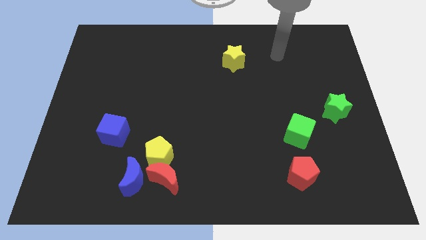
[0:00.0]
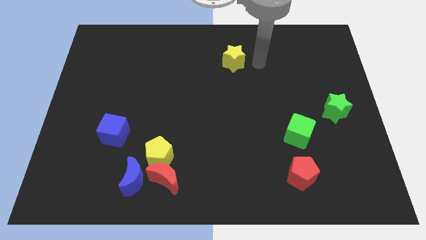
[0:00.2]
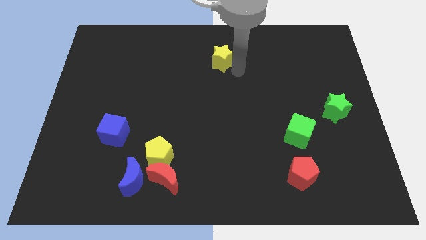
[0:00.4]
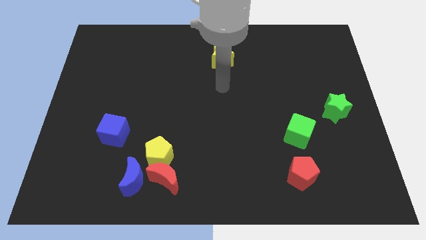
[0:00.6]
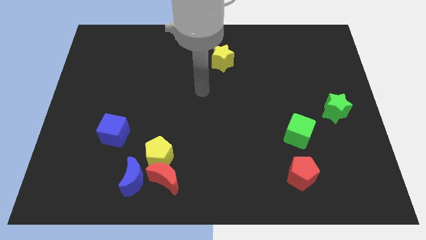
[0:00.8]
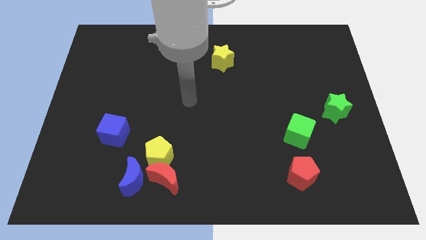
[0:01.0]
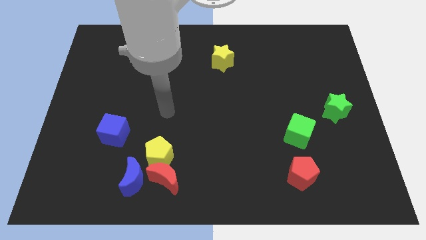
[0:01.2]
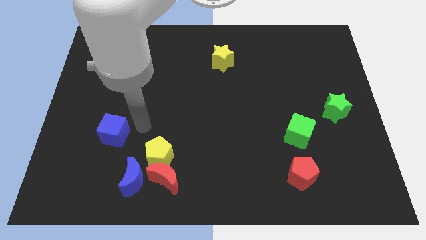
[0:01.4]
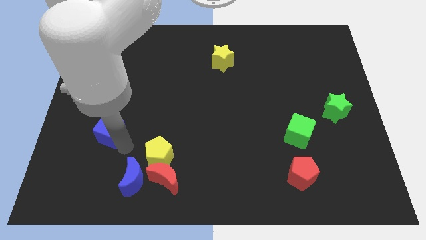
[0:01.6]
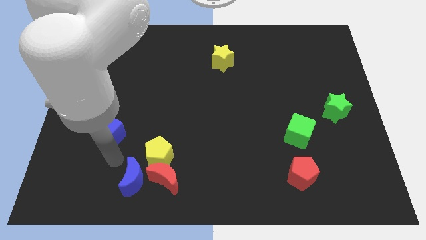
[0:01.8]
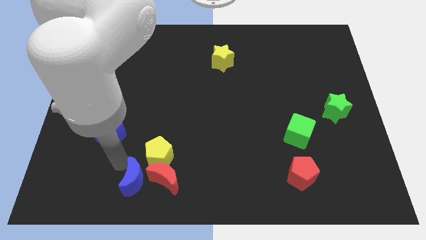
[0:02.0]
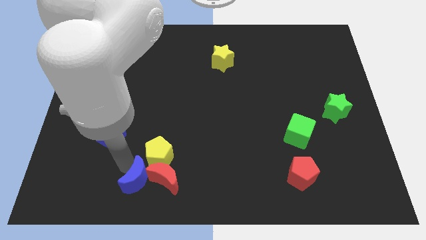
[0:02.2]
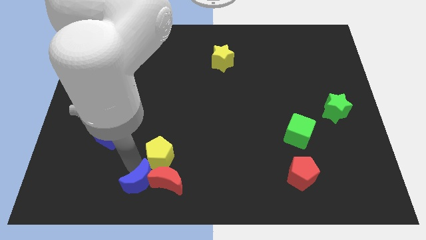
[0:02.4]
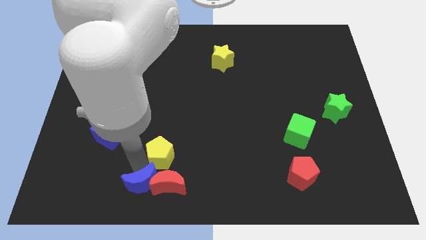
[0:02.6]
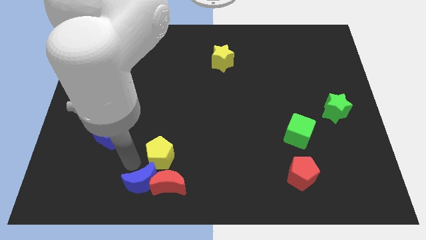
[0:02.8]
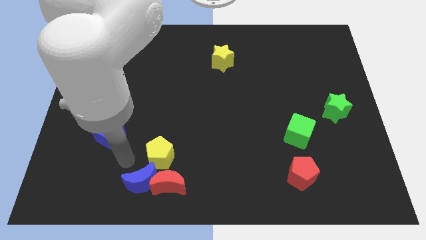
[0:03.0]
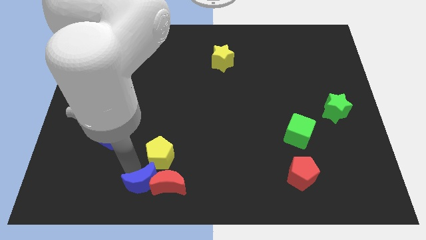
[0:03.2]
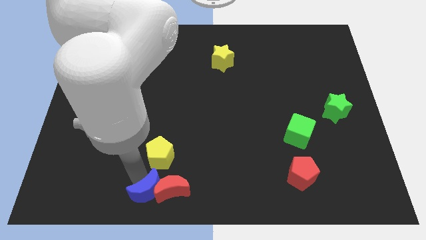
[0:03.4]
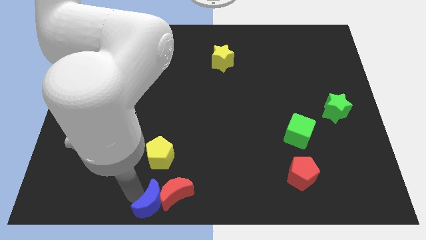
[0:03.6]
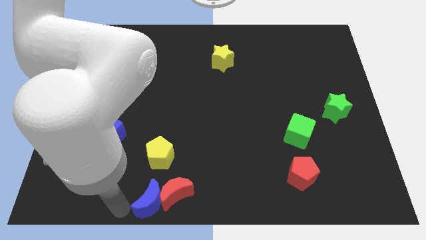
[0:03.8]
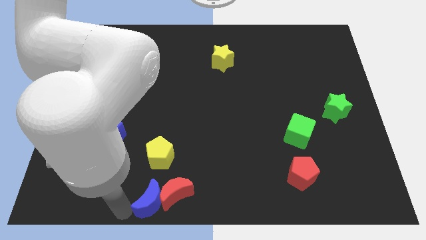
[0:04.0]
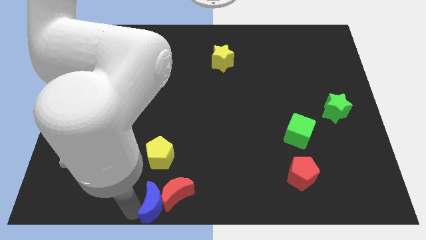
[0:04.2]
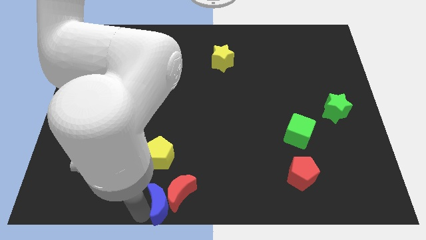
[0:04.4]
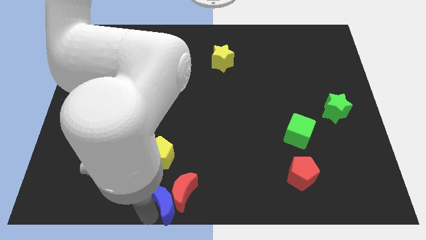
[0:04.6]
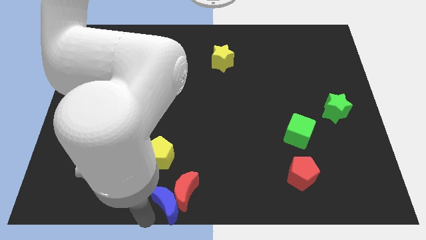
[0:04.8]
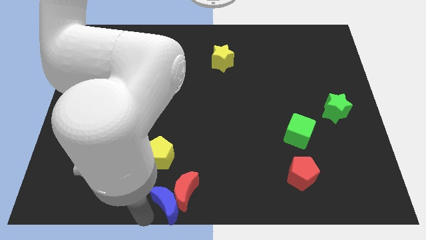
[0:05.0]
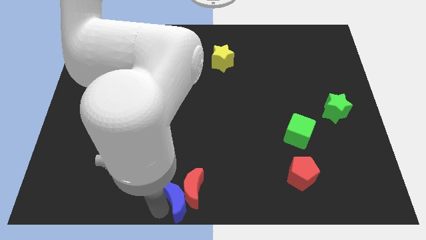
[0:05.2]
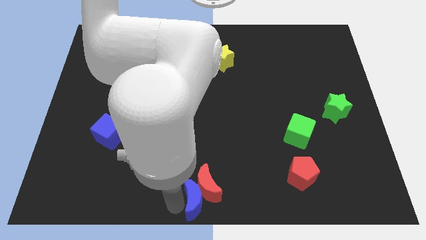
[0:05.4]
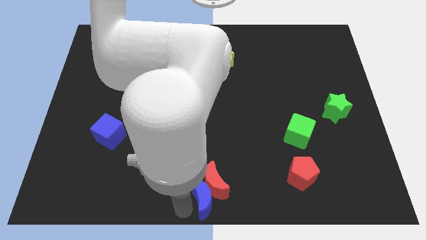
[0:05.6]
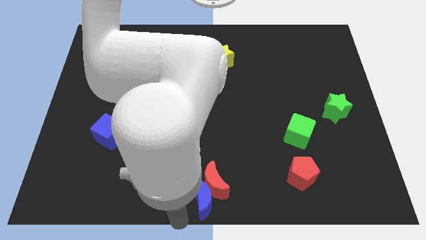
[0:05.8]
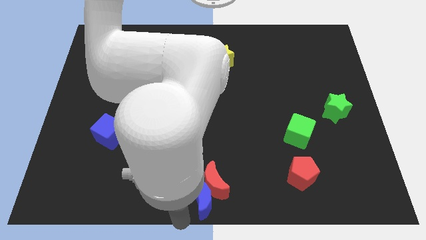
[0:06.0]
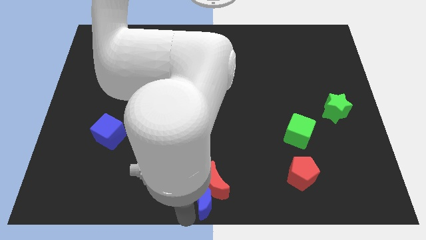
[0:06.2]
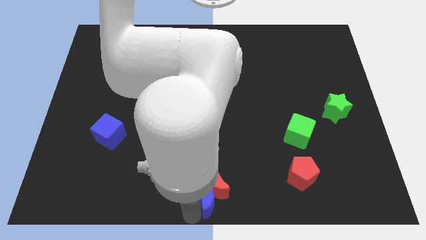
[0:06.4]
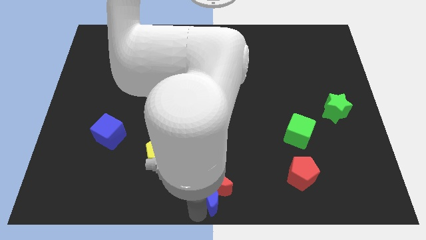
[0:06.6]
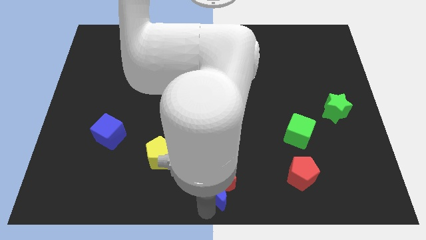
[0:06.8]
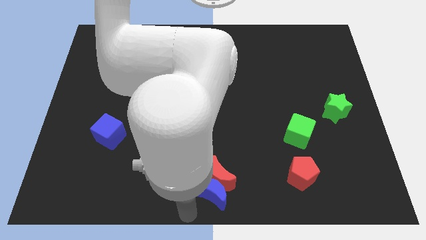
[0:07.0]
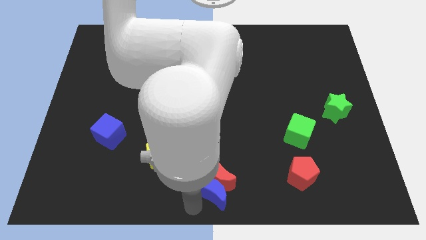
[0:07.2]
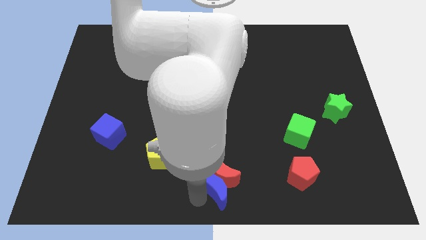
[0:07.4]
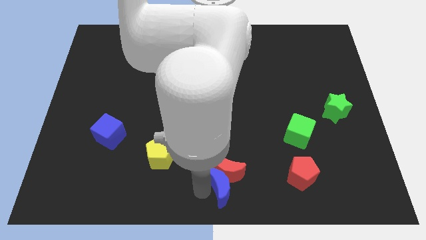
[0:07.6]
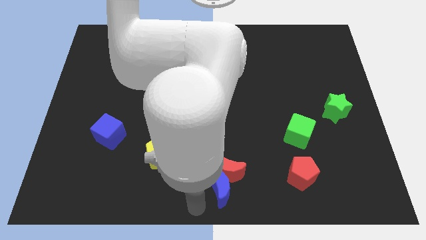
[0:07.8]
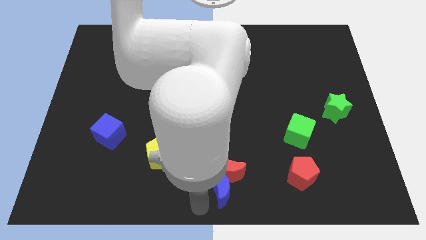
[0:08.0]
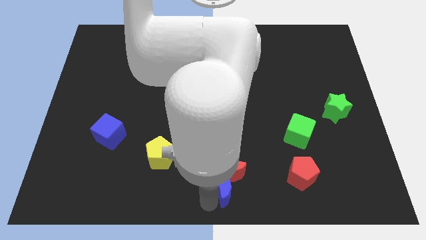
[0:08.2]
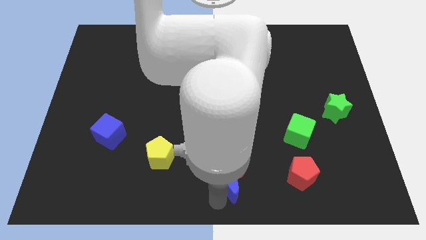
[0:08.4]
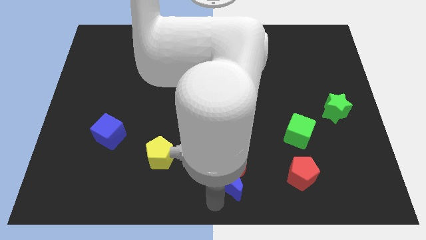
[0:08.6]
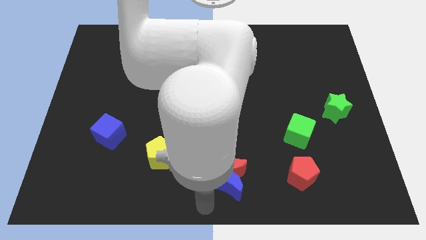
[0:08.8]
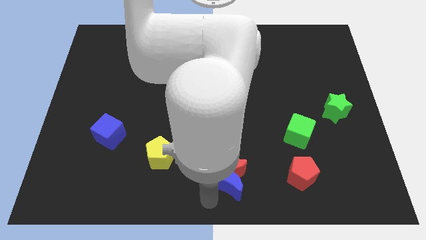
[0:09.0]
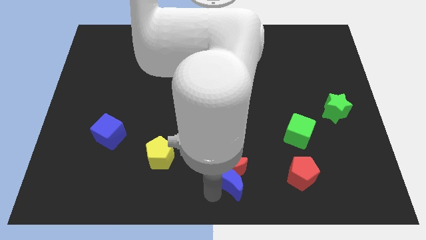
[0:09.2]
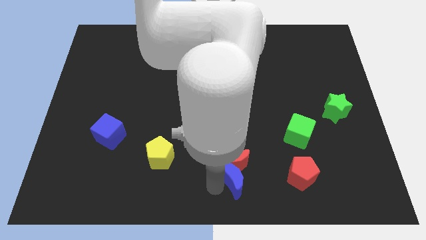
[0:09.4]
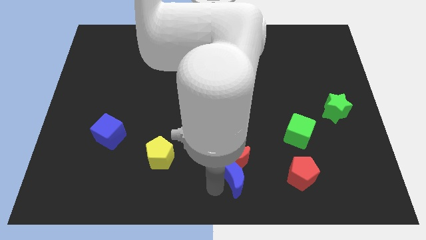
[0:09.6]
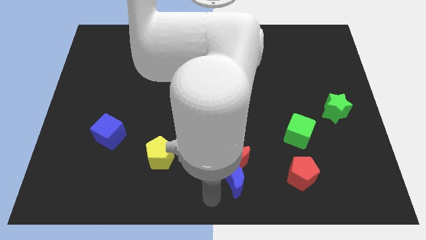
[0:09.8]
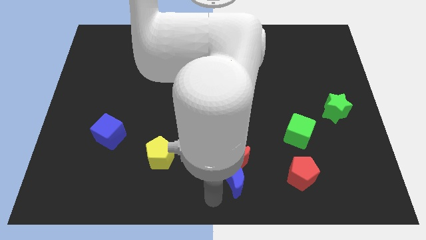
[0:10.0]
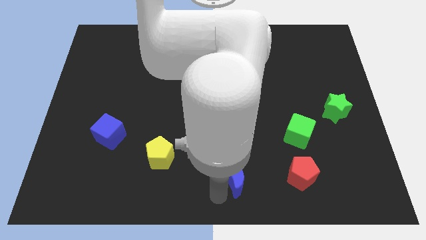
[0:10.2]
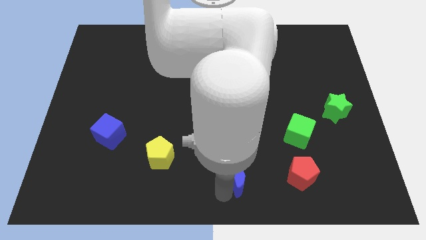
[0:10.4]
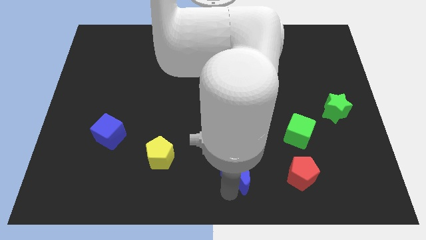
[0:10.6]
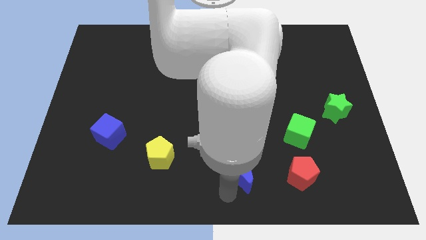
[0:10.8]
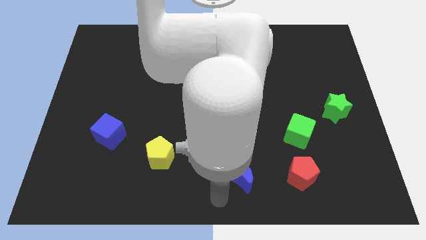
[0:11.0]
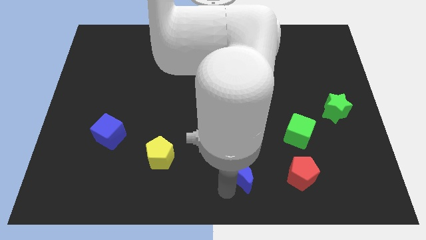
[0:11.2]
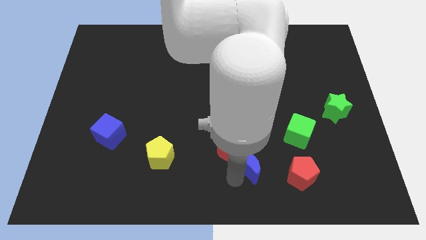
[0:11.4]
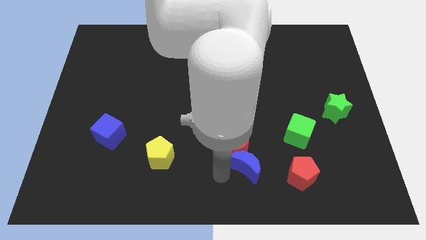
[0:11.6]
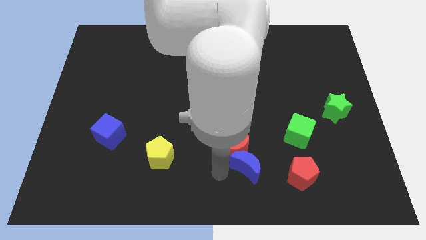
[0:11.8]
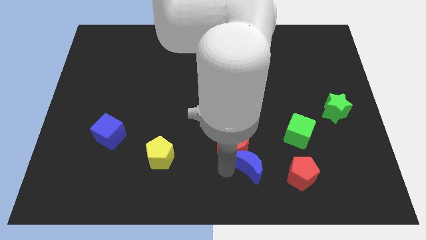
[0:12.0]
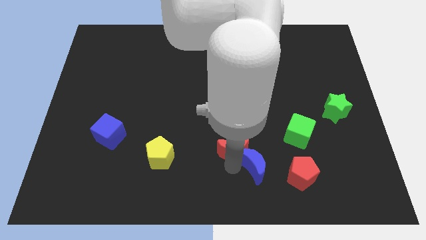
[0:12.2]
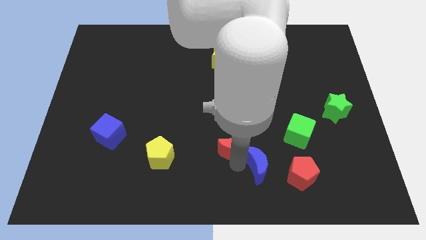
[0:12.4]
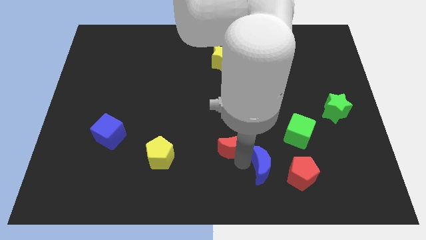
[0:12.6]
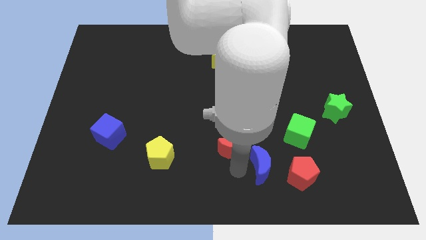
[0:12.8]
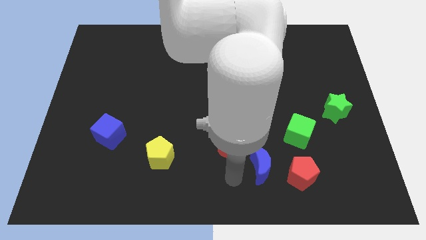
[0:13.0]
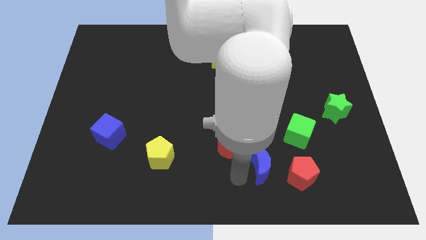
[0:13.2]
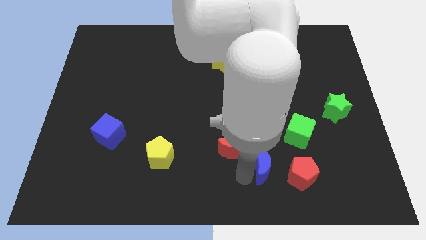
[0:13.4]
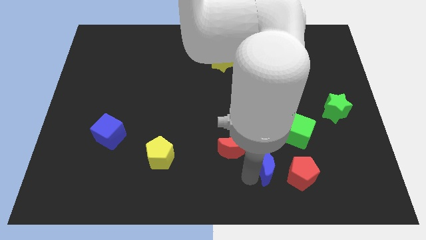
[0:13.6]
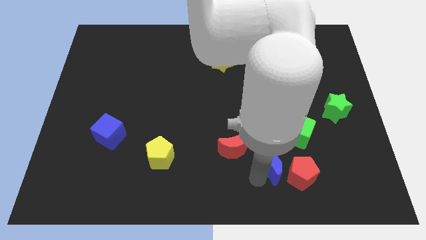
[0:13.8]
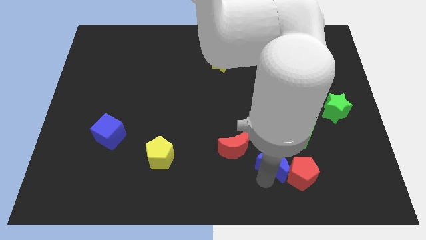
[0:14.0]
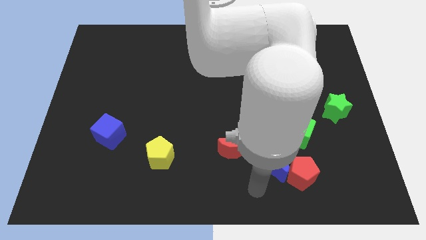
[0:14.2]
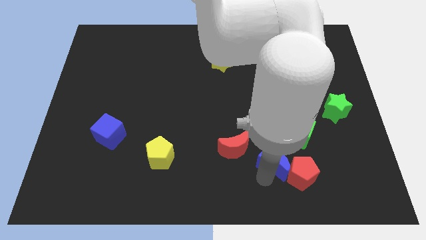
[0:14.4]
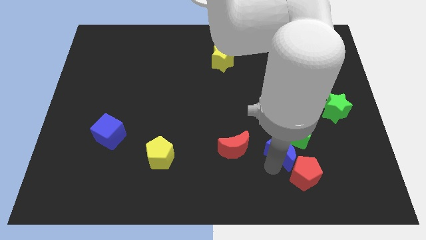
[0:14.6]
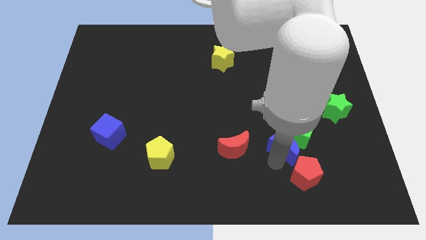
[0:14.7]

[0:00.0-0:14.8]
slide the blue moon next to the green cube

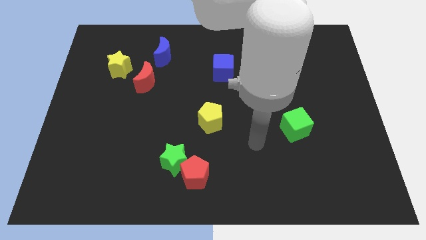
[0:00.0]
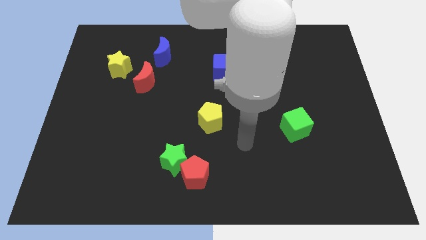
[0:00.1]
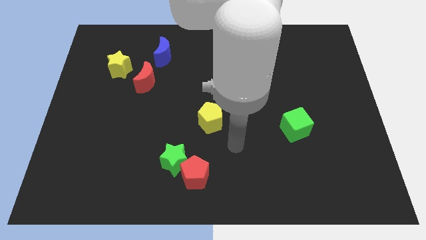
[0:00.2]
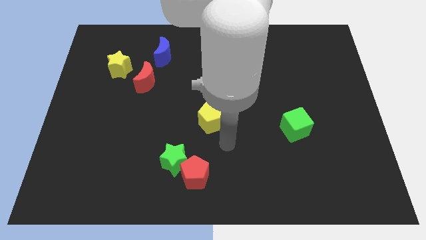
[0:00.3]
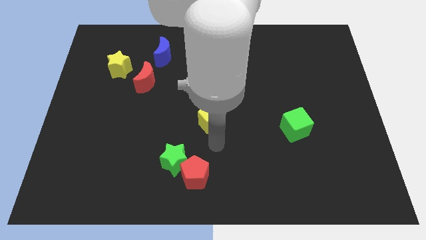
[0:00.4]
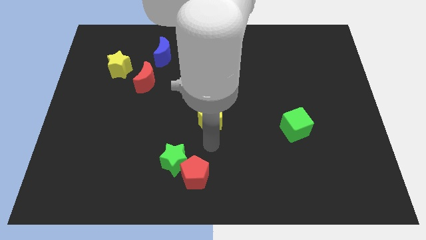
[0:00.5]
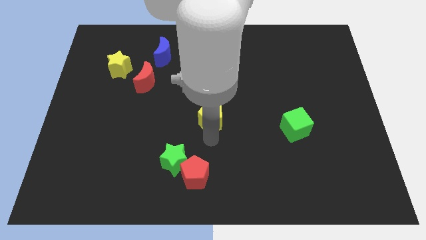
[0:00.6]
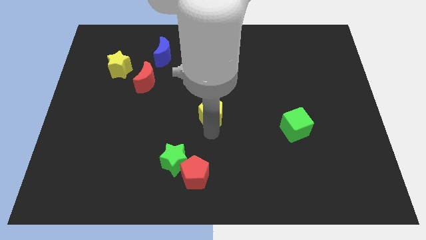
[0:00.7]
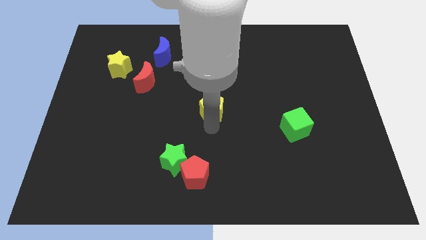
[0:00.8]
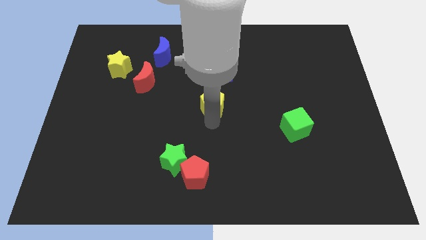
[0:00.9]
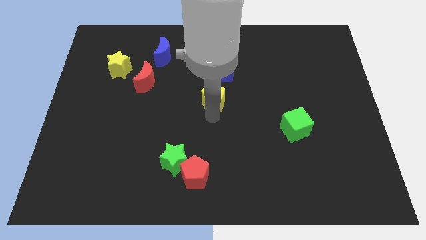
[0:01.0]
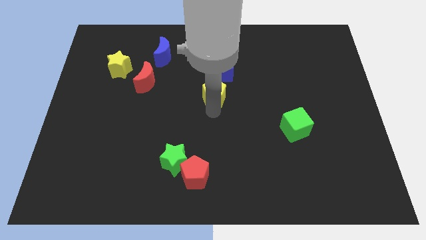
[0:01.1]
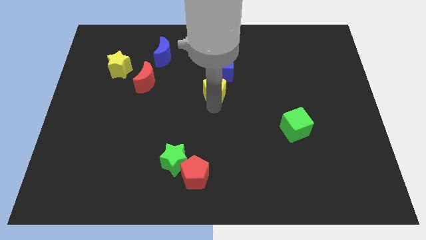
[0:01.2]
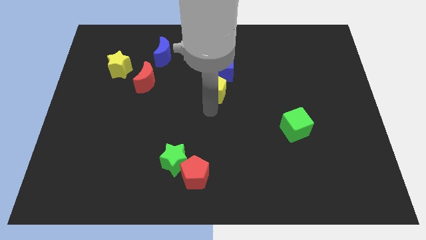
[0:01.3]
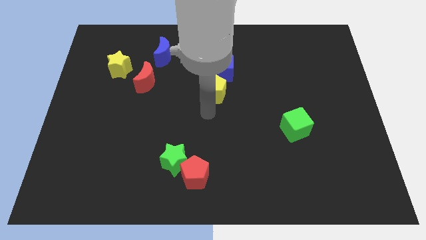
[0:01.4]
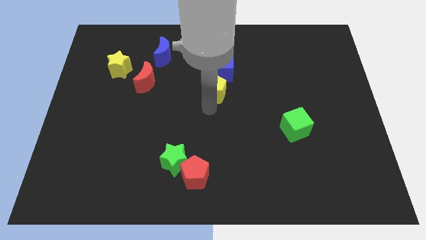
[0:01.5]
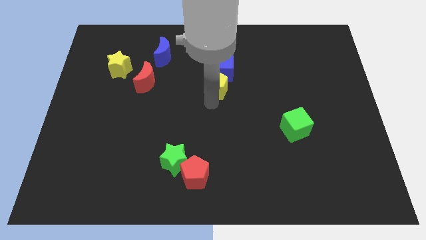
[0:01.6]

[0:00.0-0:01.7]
put the yellow pentagon to the blue cube
